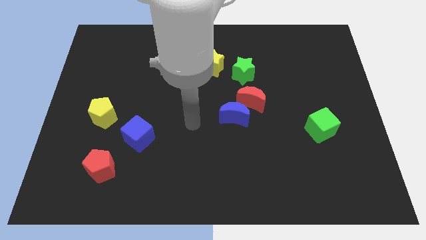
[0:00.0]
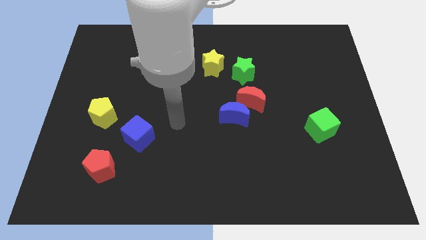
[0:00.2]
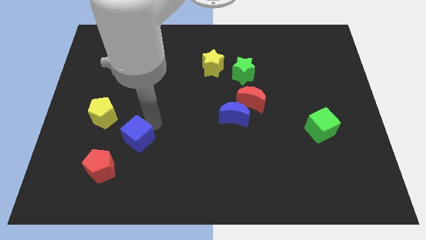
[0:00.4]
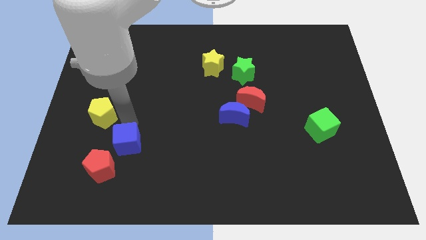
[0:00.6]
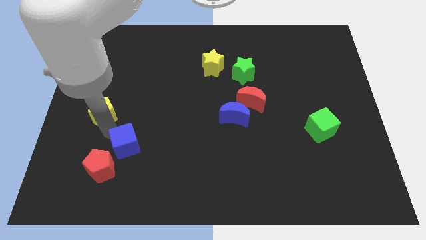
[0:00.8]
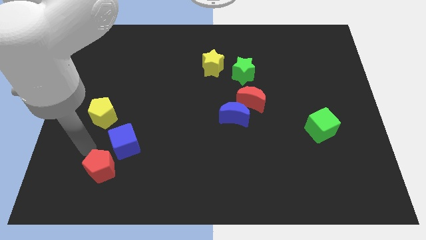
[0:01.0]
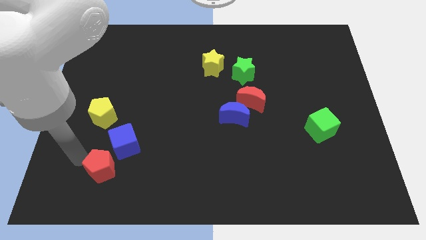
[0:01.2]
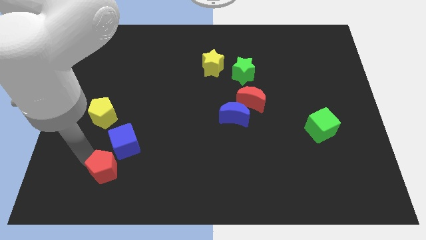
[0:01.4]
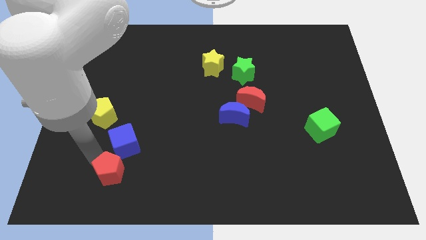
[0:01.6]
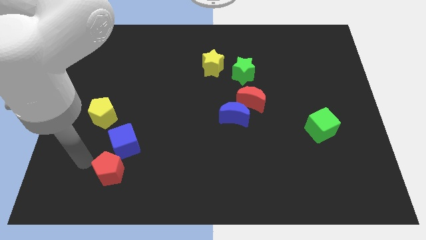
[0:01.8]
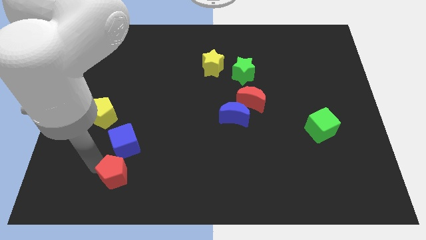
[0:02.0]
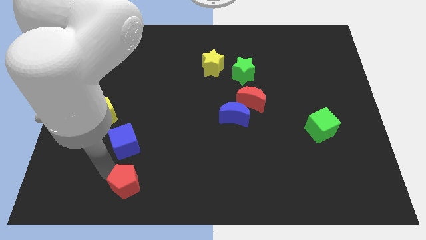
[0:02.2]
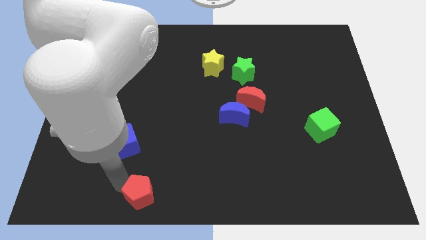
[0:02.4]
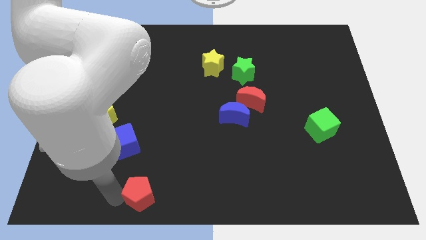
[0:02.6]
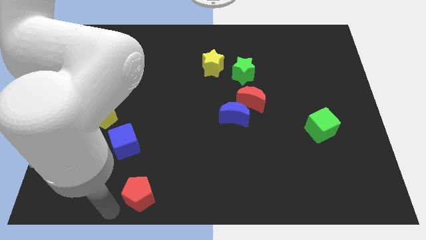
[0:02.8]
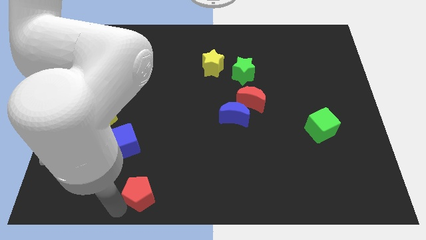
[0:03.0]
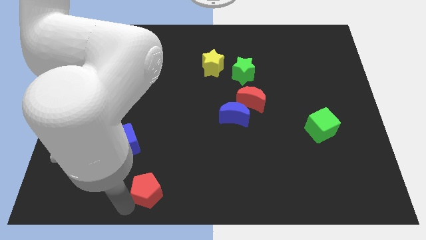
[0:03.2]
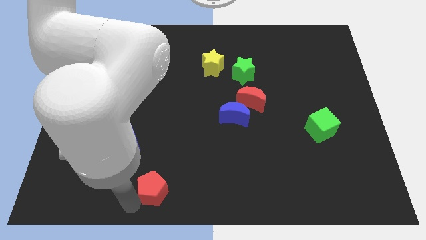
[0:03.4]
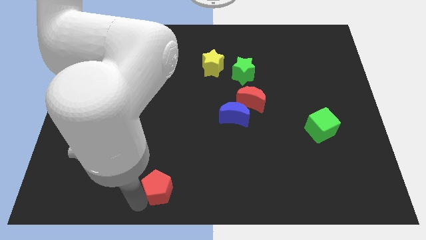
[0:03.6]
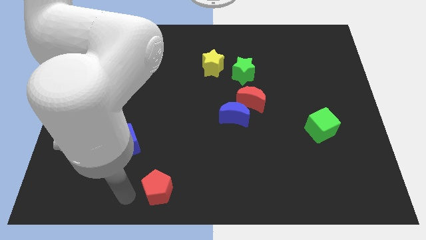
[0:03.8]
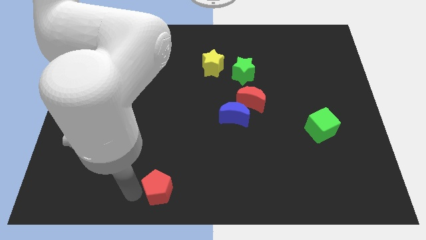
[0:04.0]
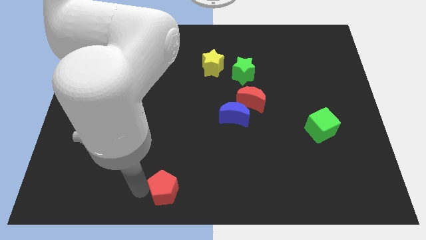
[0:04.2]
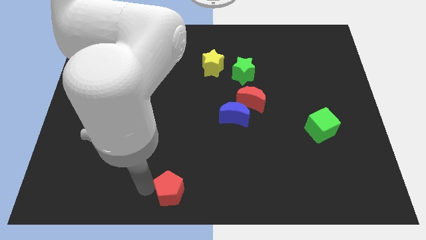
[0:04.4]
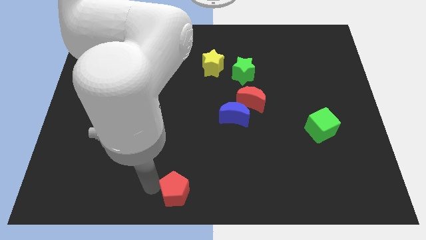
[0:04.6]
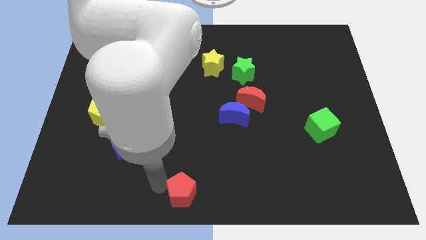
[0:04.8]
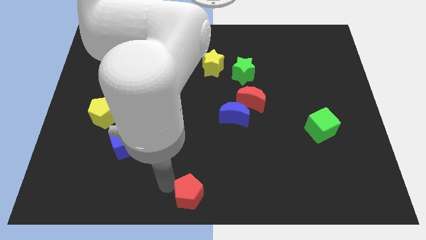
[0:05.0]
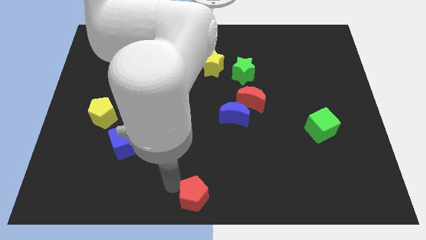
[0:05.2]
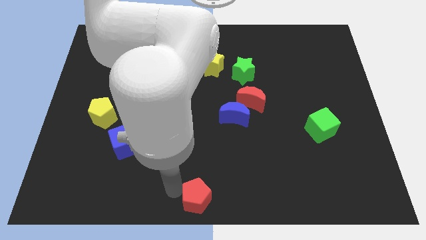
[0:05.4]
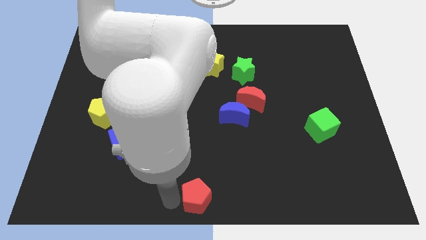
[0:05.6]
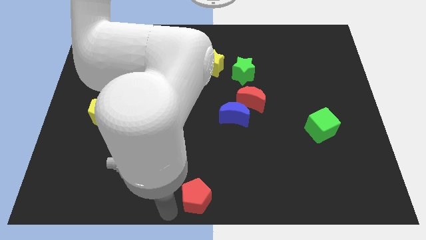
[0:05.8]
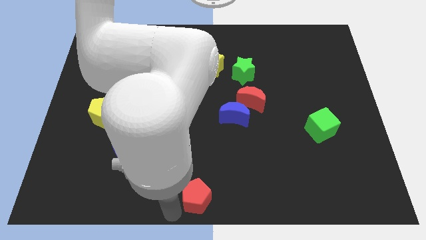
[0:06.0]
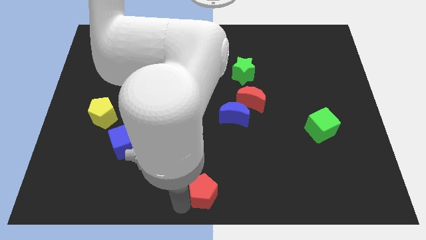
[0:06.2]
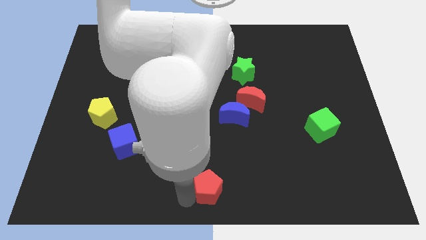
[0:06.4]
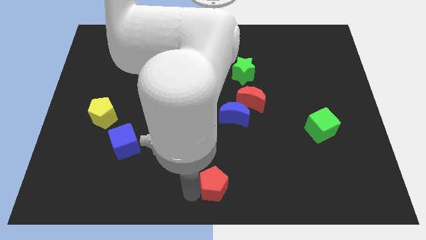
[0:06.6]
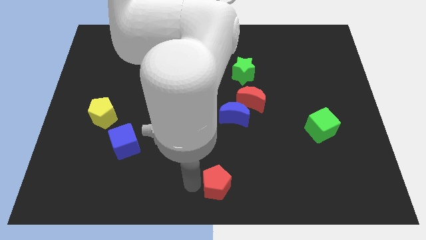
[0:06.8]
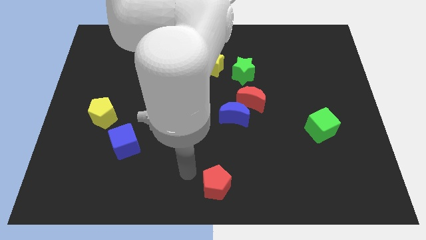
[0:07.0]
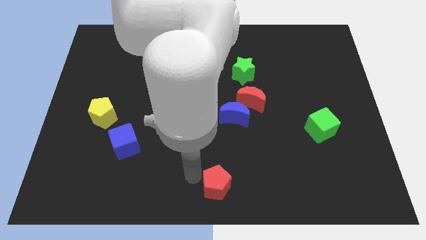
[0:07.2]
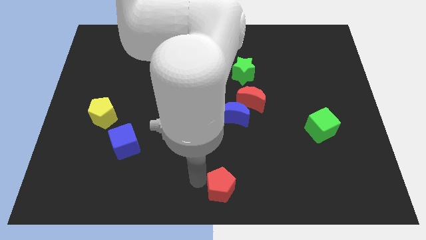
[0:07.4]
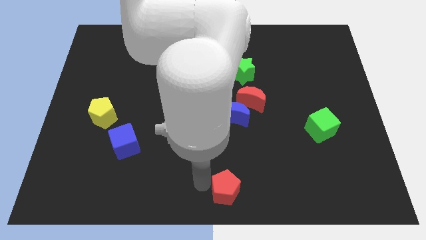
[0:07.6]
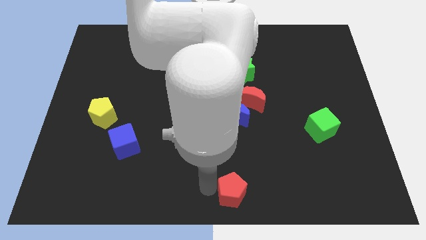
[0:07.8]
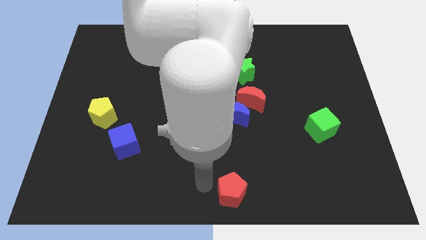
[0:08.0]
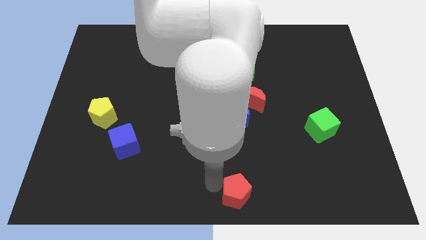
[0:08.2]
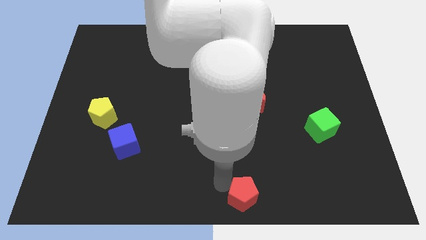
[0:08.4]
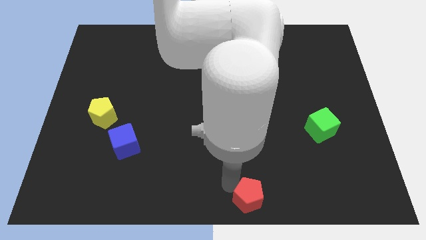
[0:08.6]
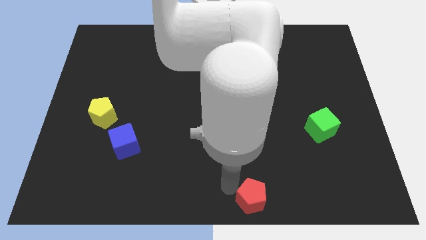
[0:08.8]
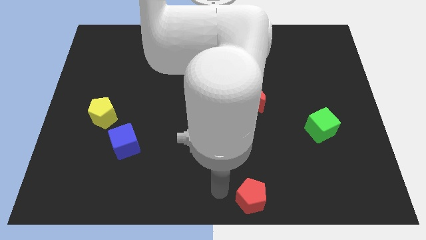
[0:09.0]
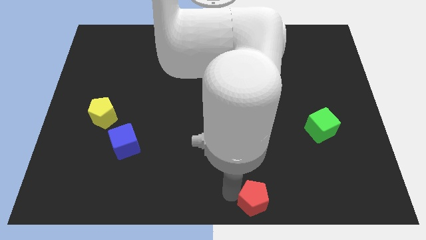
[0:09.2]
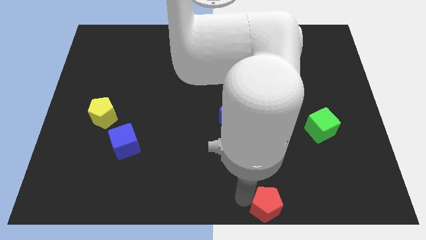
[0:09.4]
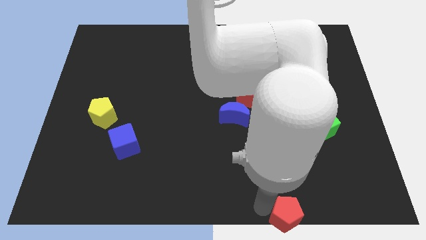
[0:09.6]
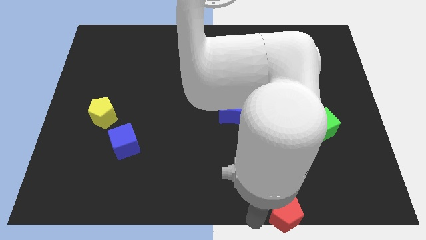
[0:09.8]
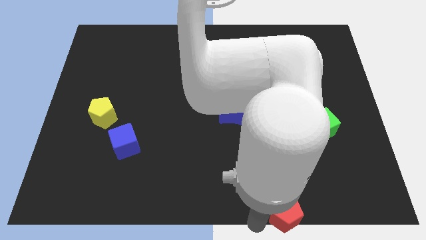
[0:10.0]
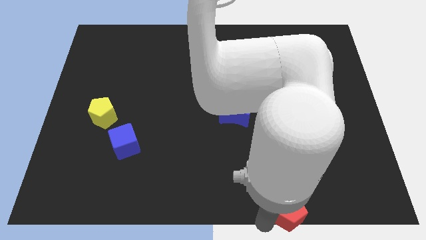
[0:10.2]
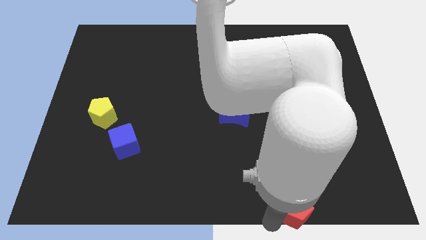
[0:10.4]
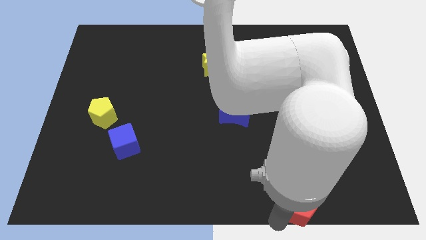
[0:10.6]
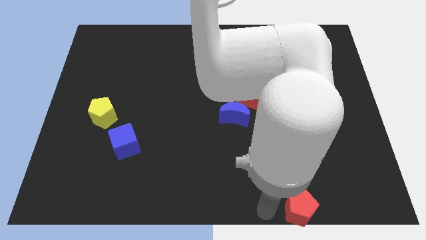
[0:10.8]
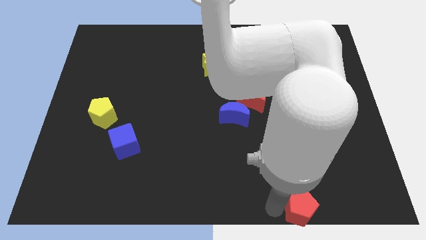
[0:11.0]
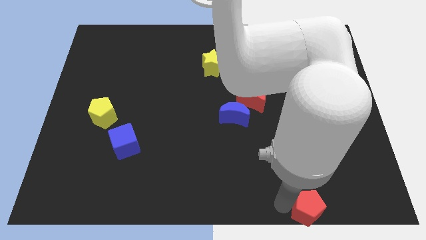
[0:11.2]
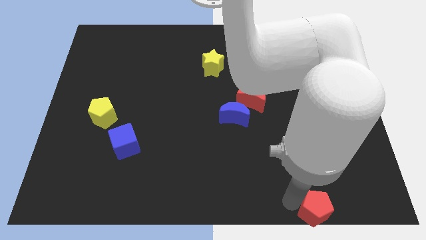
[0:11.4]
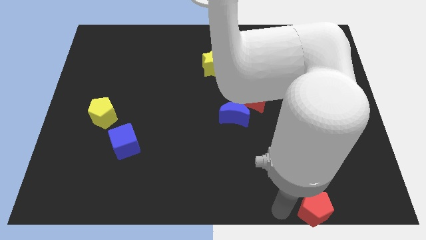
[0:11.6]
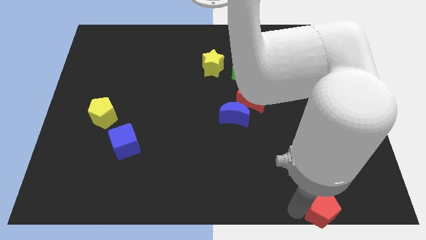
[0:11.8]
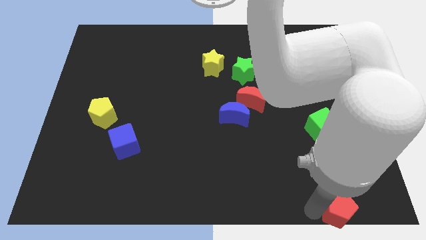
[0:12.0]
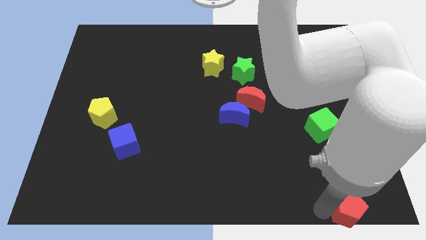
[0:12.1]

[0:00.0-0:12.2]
slide the red pentagon to the bottom right of the board

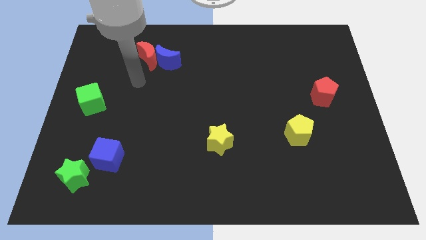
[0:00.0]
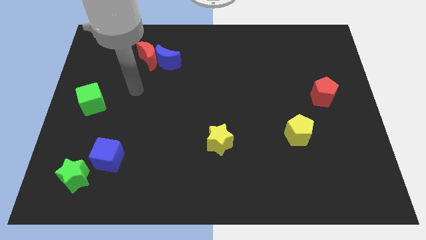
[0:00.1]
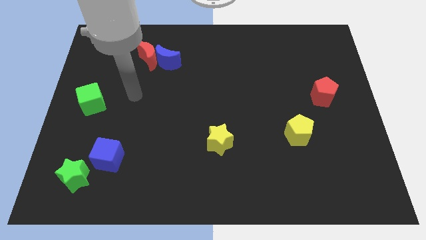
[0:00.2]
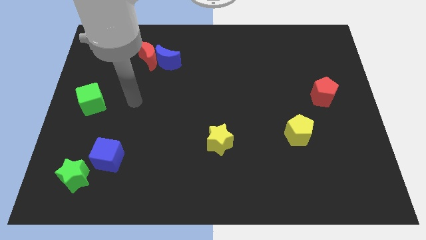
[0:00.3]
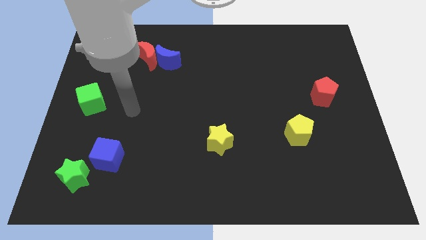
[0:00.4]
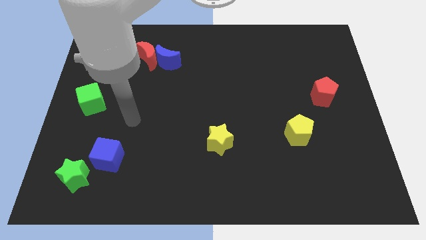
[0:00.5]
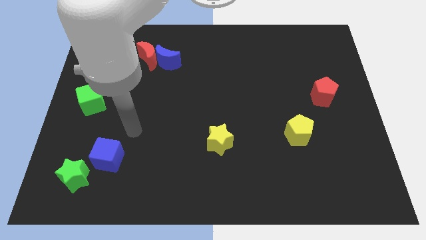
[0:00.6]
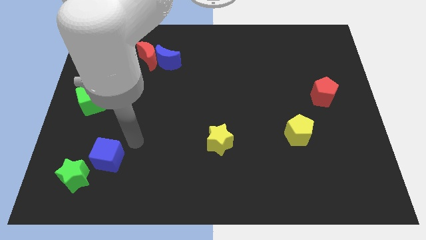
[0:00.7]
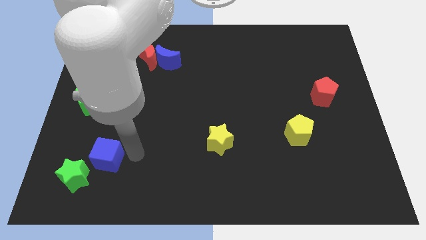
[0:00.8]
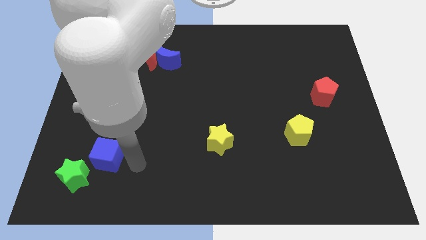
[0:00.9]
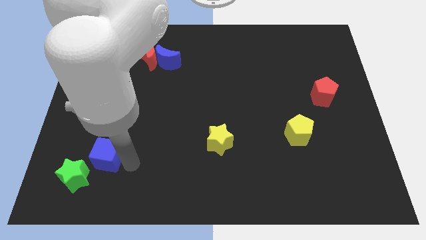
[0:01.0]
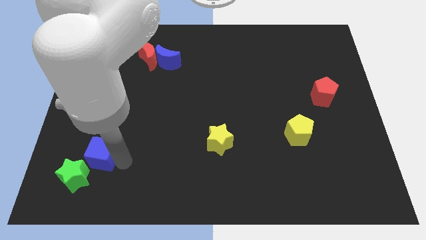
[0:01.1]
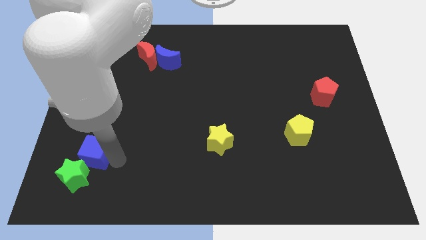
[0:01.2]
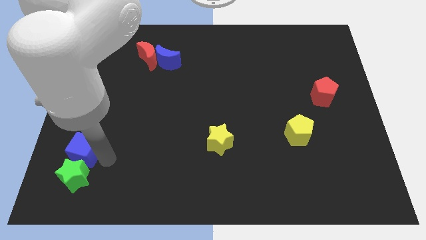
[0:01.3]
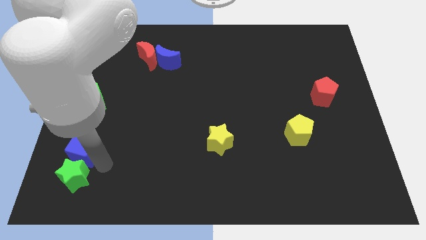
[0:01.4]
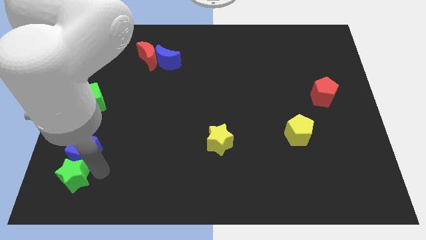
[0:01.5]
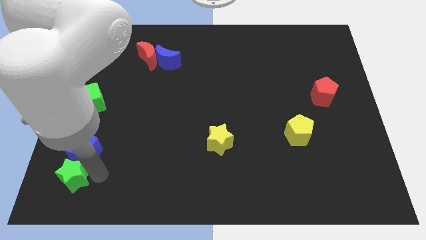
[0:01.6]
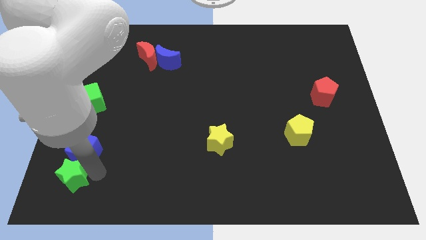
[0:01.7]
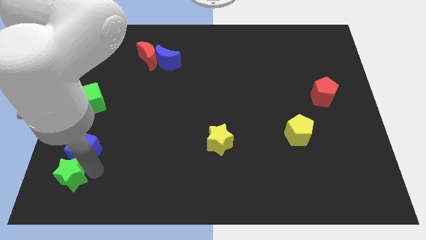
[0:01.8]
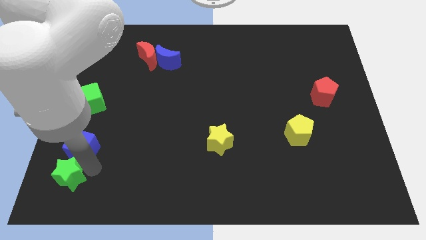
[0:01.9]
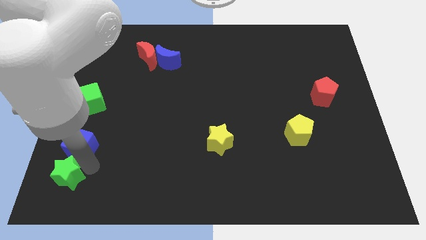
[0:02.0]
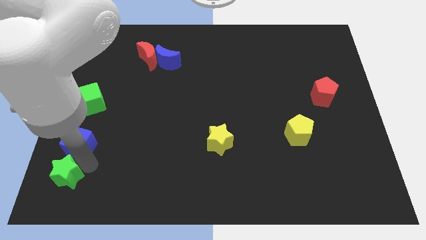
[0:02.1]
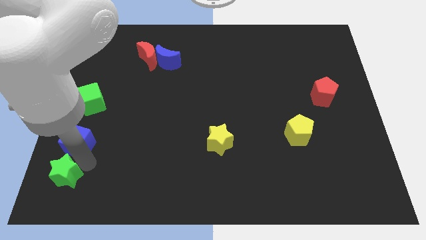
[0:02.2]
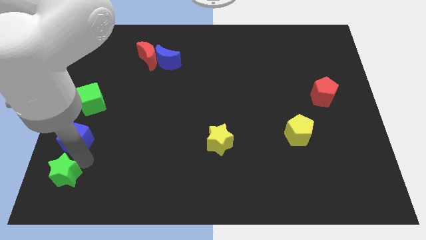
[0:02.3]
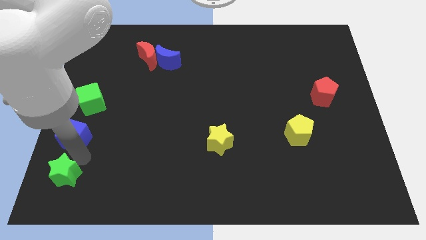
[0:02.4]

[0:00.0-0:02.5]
move the blue cube to the left side
